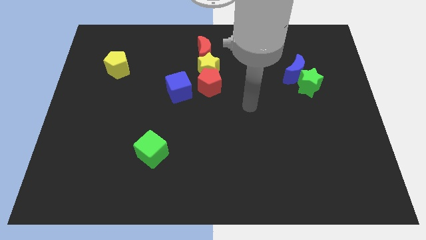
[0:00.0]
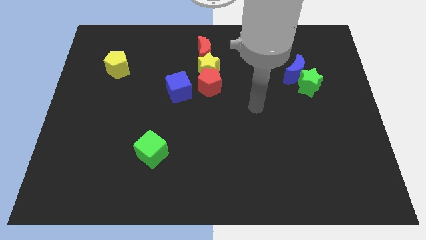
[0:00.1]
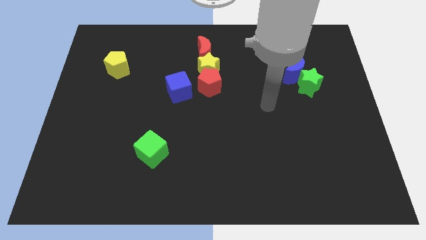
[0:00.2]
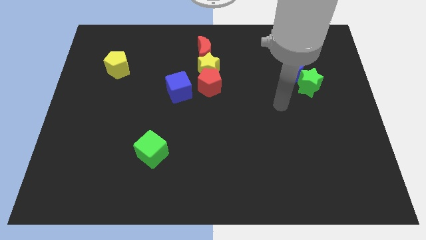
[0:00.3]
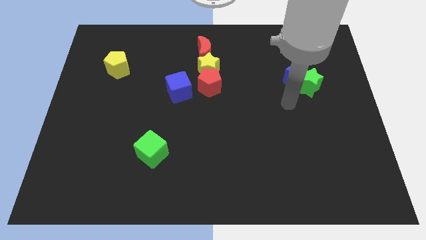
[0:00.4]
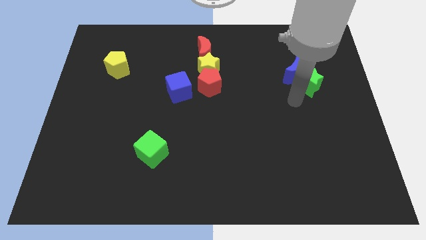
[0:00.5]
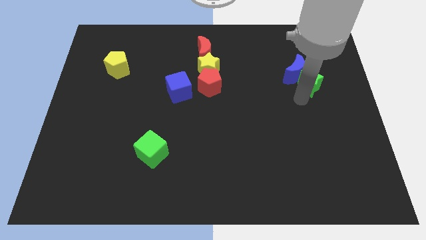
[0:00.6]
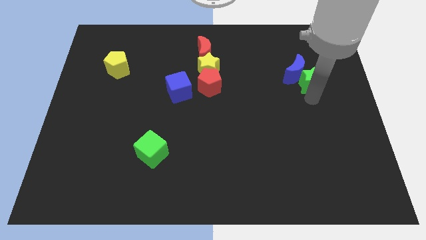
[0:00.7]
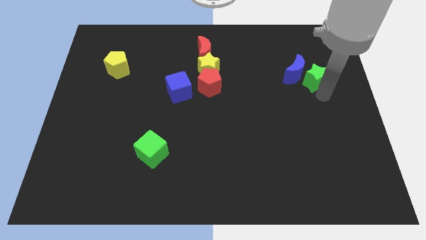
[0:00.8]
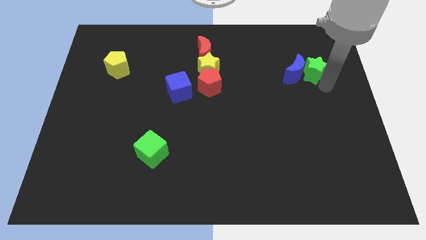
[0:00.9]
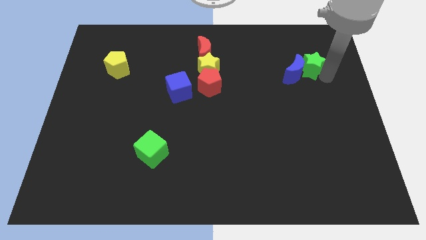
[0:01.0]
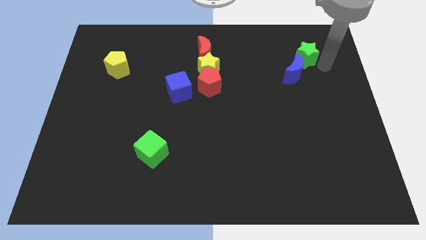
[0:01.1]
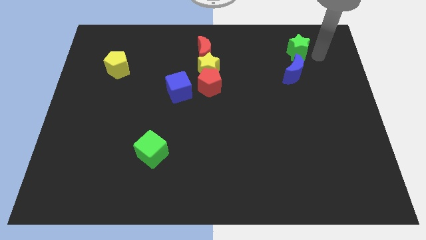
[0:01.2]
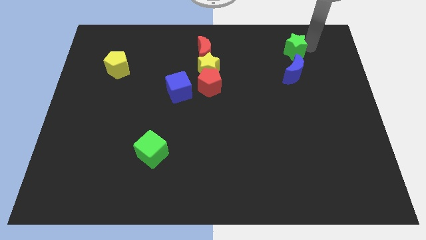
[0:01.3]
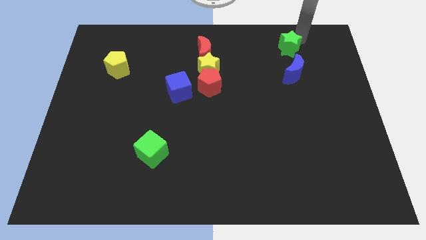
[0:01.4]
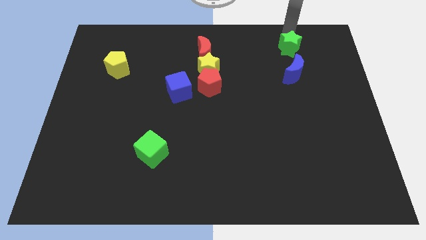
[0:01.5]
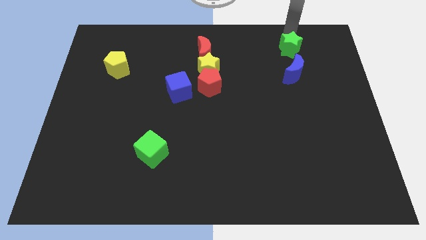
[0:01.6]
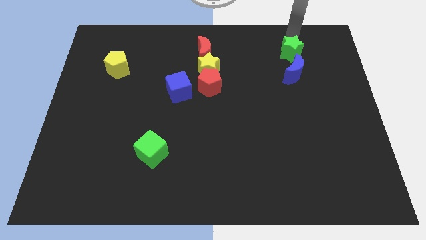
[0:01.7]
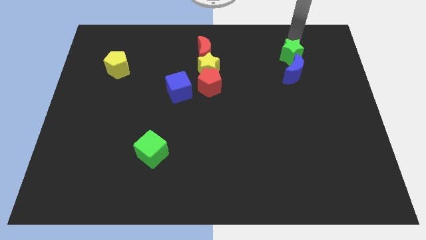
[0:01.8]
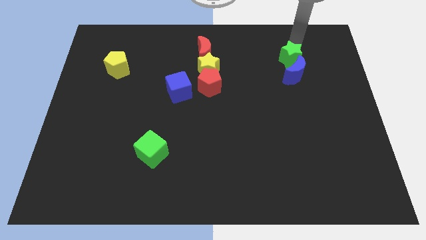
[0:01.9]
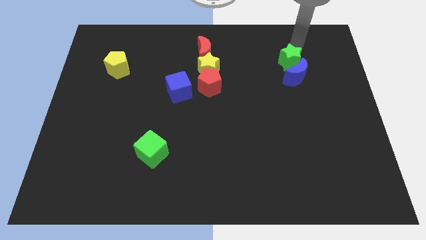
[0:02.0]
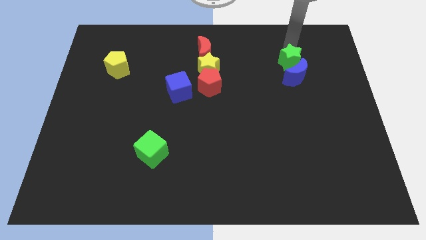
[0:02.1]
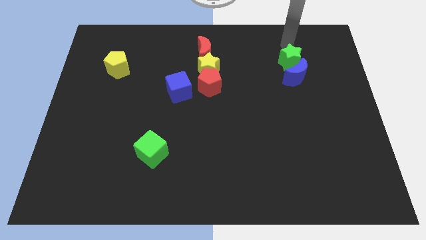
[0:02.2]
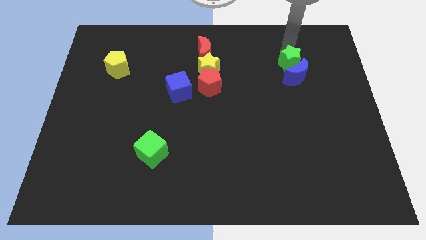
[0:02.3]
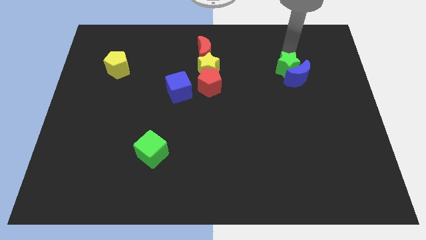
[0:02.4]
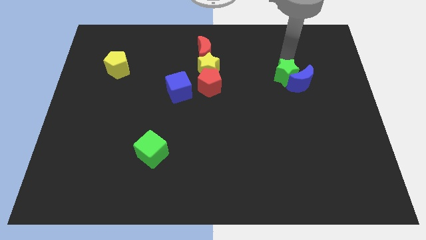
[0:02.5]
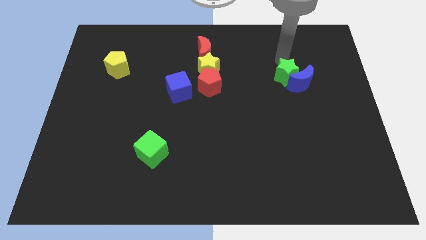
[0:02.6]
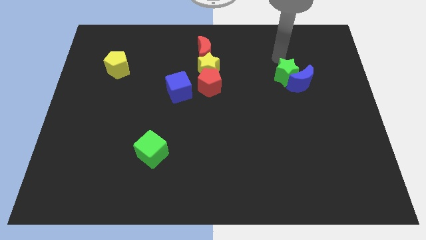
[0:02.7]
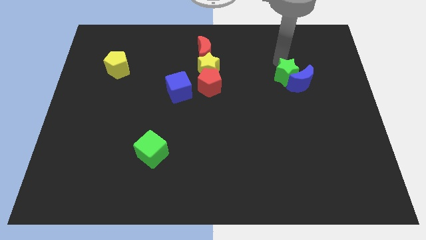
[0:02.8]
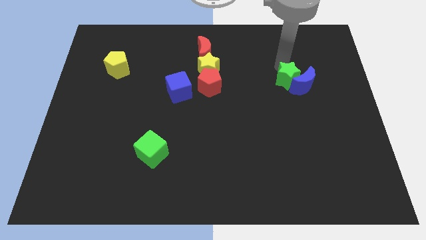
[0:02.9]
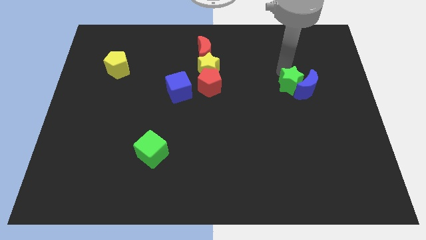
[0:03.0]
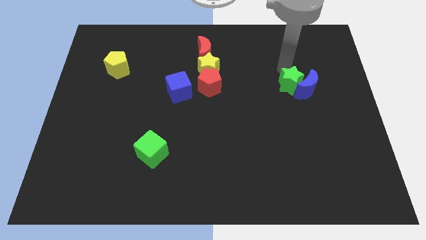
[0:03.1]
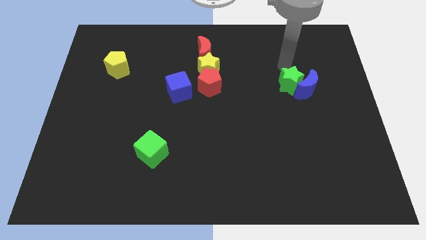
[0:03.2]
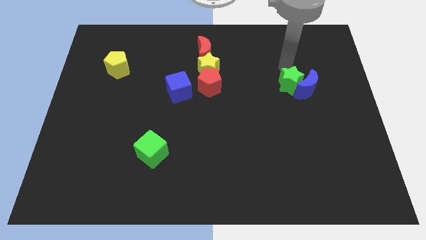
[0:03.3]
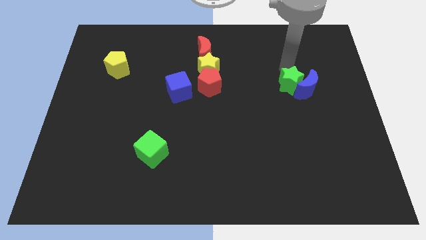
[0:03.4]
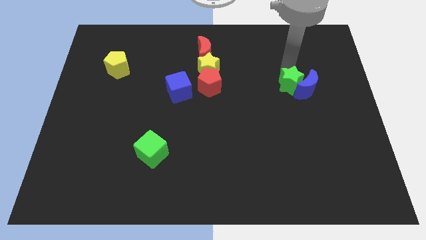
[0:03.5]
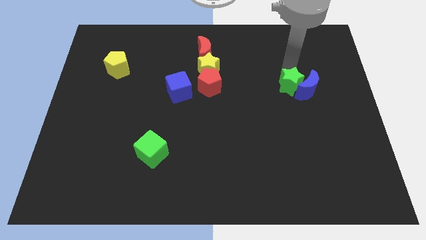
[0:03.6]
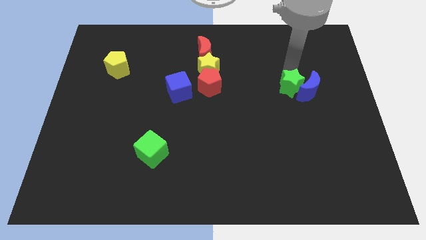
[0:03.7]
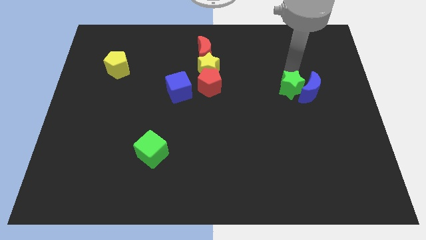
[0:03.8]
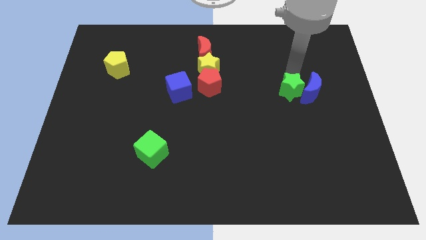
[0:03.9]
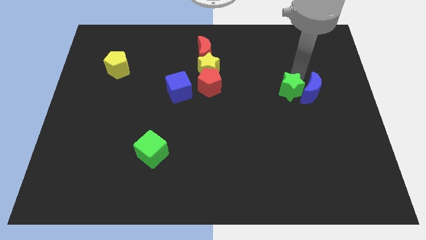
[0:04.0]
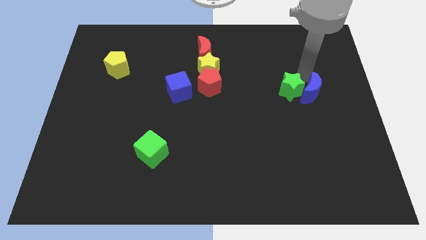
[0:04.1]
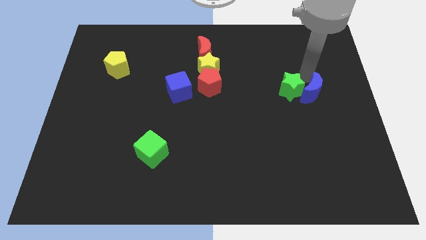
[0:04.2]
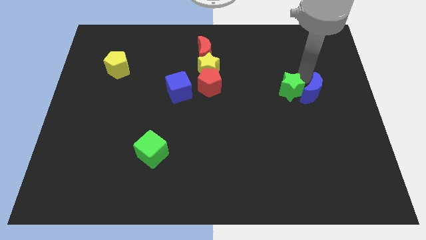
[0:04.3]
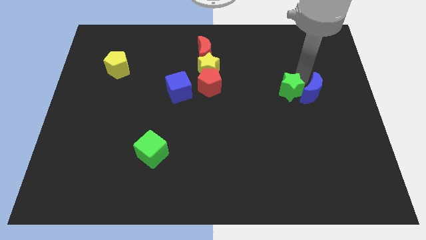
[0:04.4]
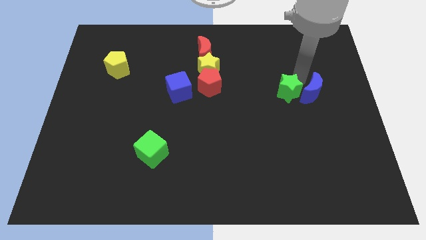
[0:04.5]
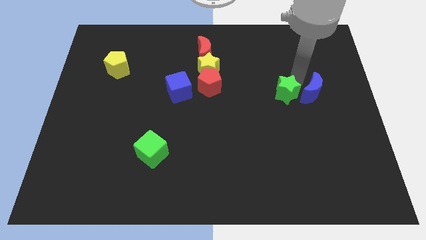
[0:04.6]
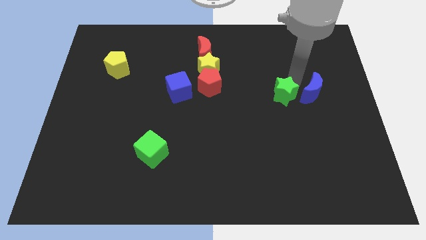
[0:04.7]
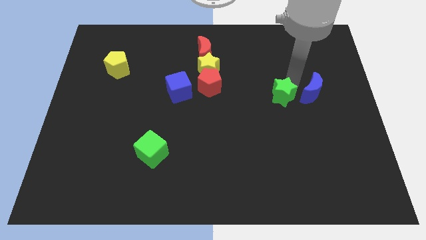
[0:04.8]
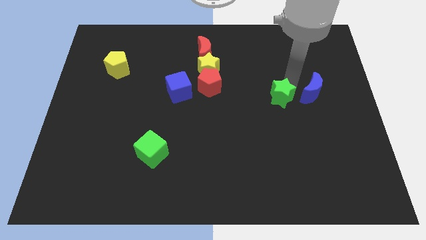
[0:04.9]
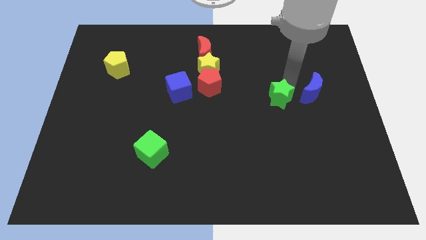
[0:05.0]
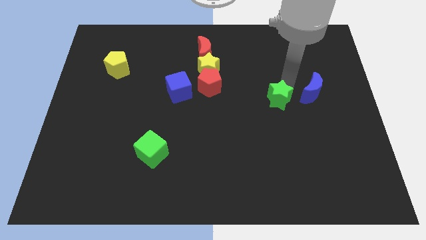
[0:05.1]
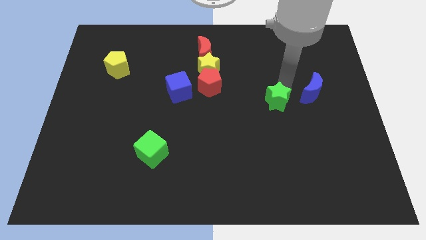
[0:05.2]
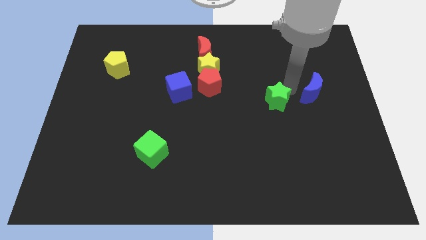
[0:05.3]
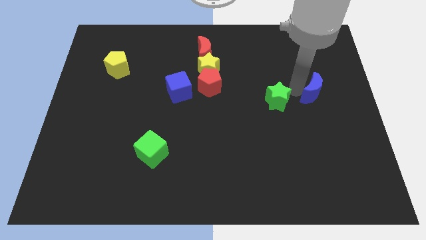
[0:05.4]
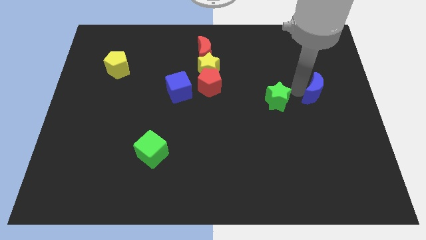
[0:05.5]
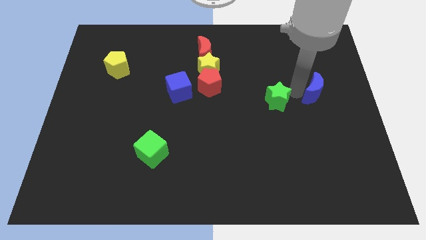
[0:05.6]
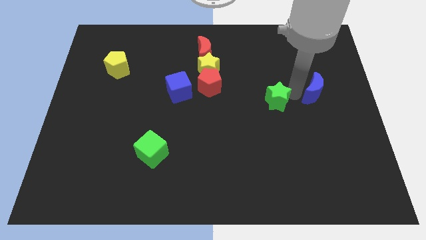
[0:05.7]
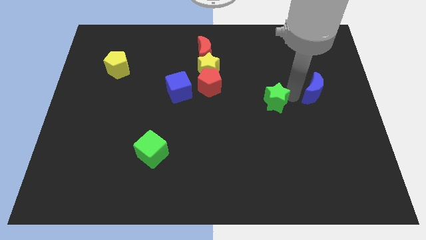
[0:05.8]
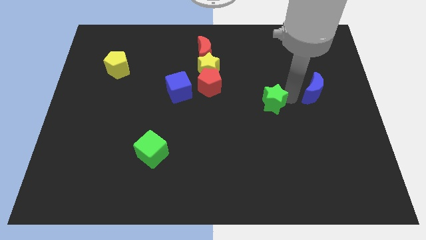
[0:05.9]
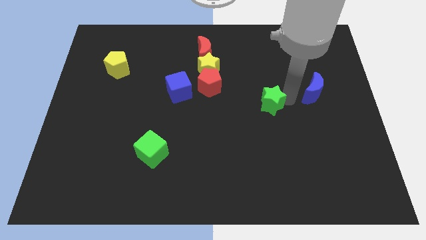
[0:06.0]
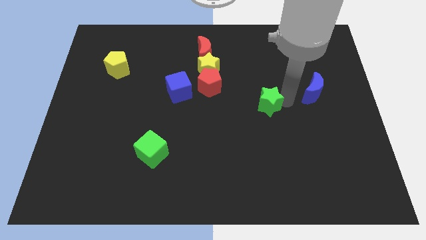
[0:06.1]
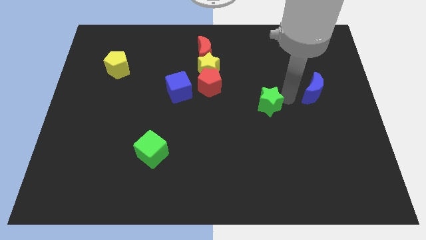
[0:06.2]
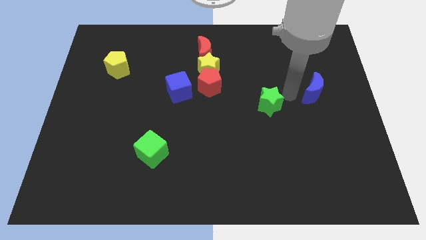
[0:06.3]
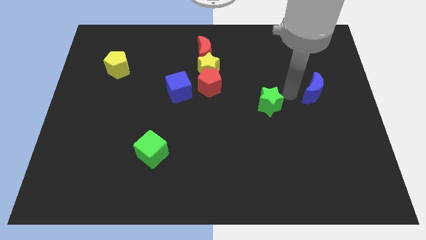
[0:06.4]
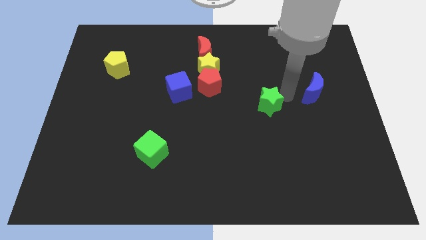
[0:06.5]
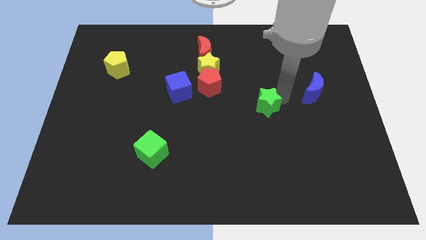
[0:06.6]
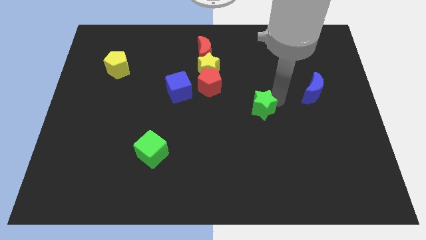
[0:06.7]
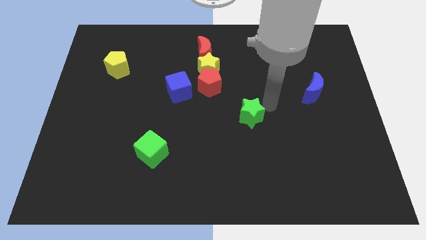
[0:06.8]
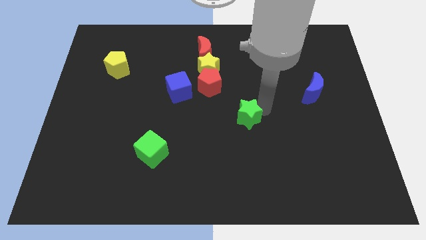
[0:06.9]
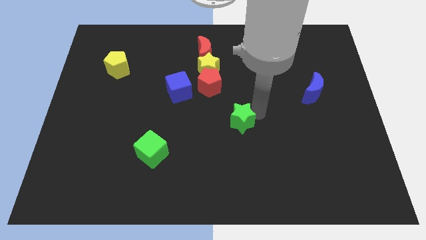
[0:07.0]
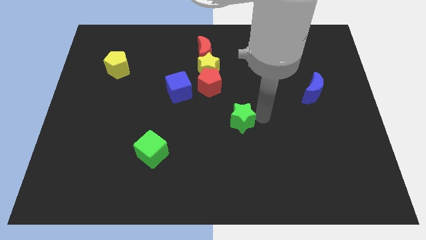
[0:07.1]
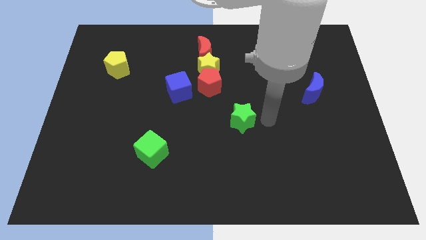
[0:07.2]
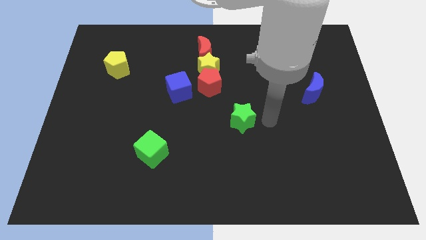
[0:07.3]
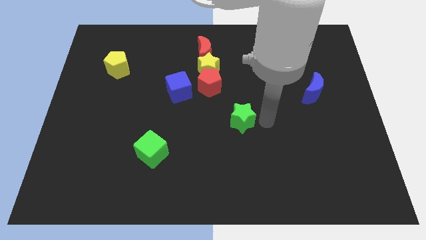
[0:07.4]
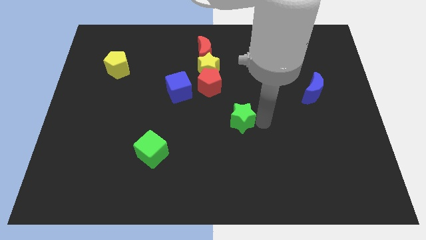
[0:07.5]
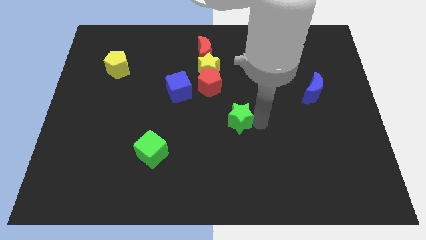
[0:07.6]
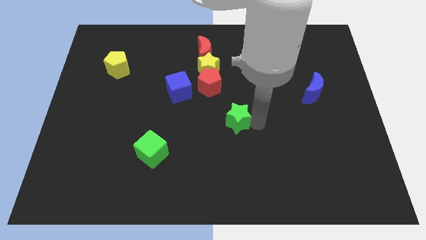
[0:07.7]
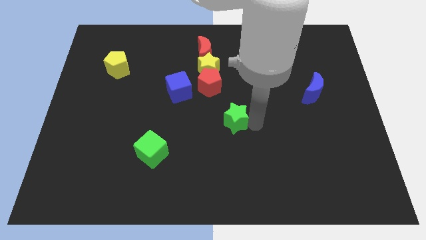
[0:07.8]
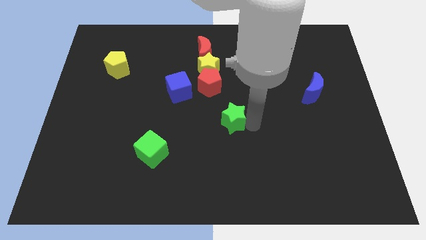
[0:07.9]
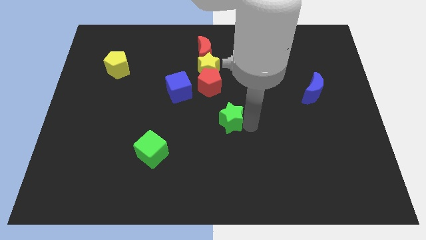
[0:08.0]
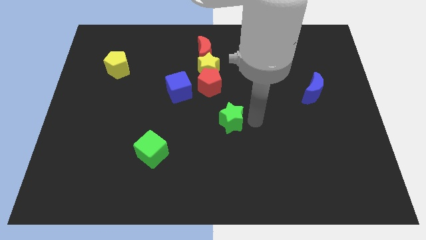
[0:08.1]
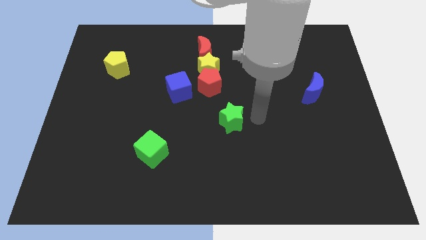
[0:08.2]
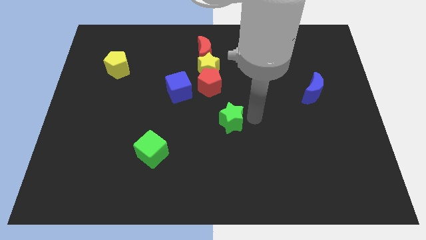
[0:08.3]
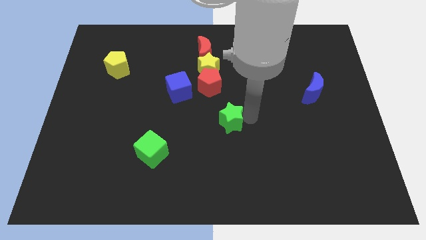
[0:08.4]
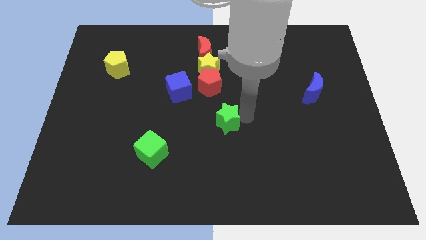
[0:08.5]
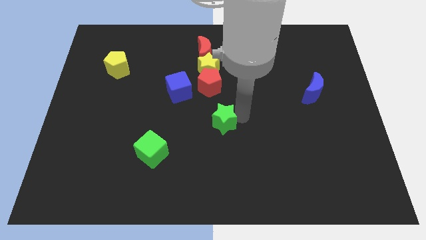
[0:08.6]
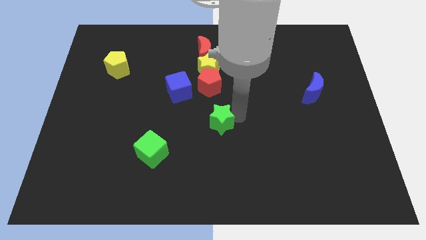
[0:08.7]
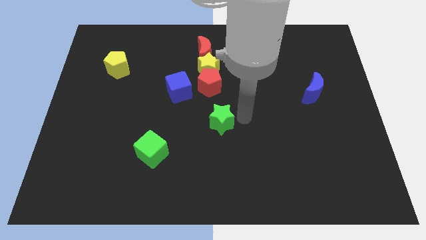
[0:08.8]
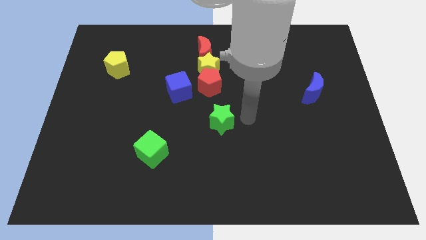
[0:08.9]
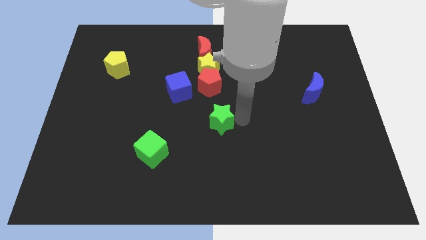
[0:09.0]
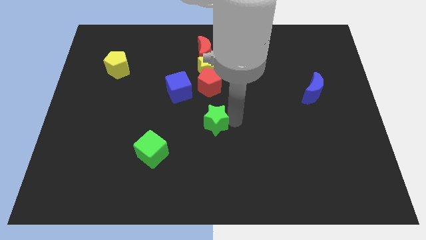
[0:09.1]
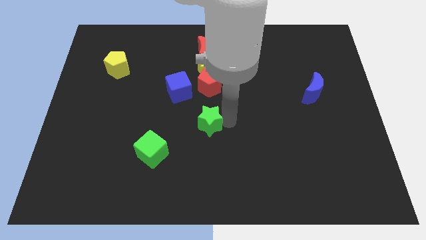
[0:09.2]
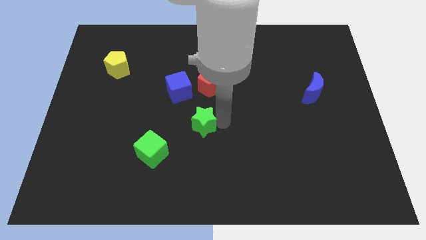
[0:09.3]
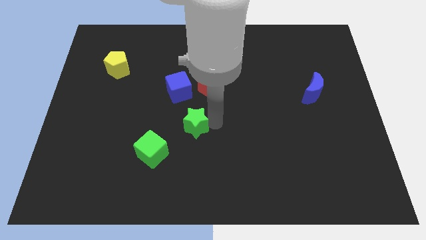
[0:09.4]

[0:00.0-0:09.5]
put the green star to the top right side of the green cube
